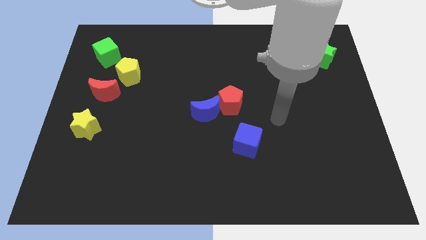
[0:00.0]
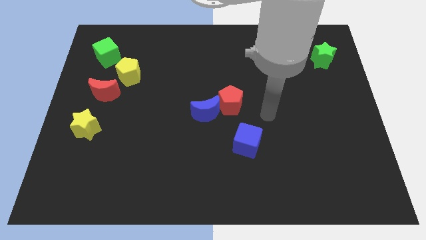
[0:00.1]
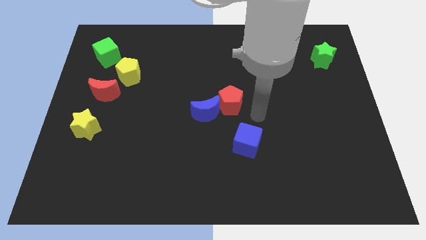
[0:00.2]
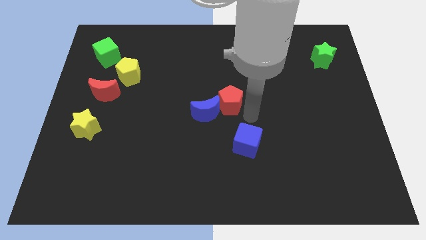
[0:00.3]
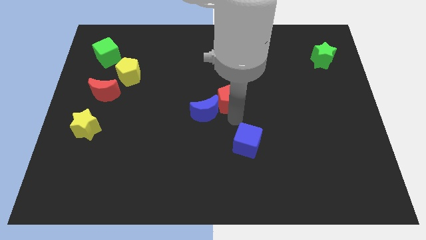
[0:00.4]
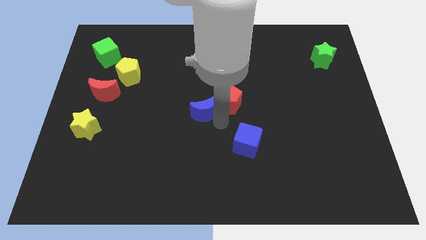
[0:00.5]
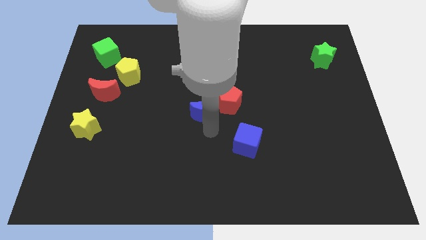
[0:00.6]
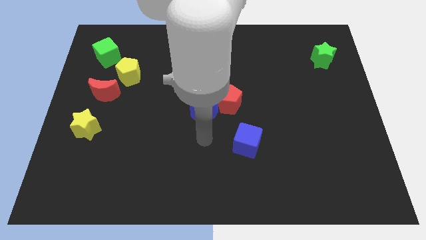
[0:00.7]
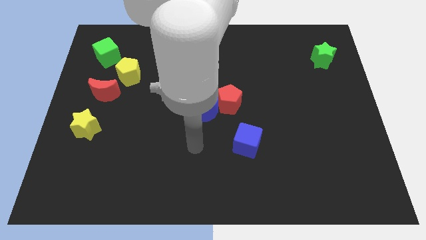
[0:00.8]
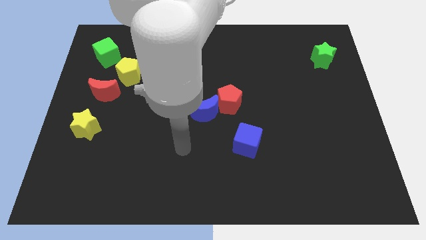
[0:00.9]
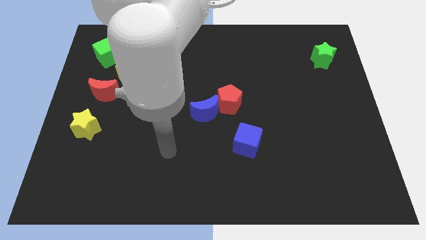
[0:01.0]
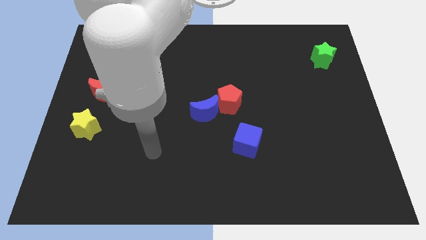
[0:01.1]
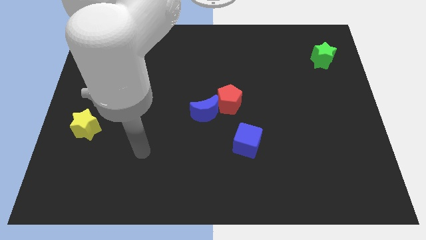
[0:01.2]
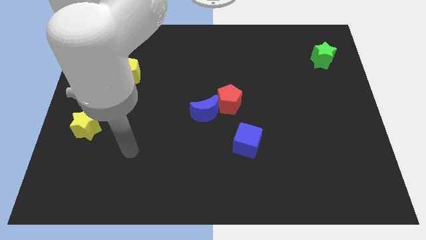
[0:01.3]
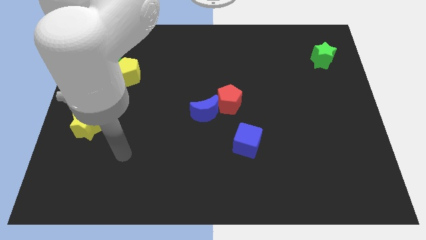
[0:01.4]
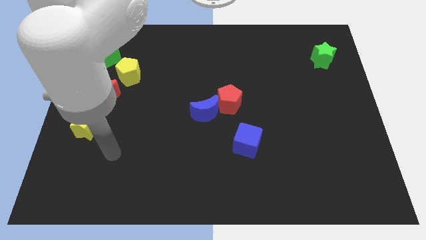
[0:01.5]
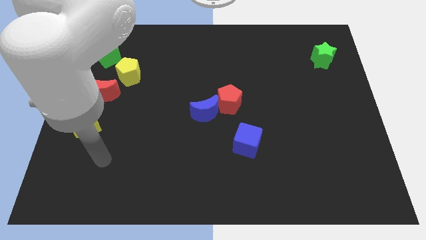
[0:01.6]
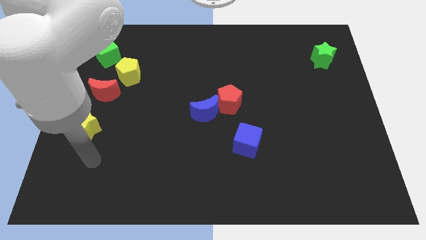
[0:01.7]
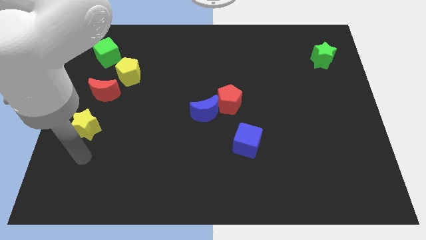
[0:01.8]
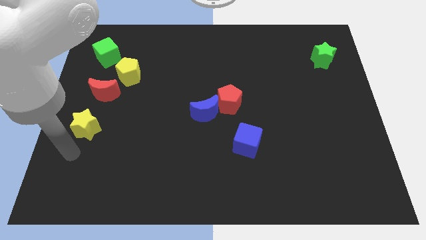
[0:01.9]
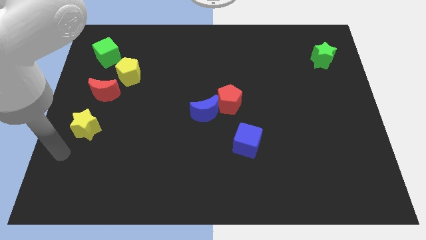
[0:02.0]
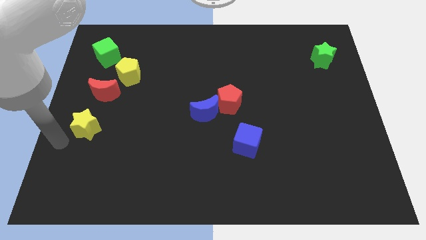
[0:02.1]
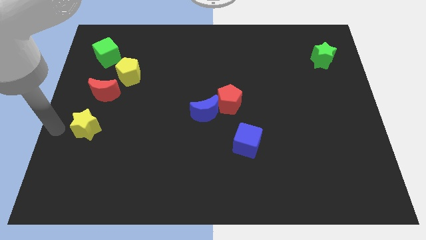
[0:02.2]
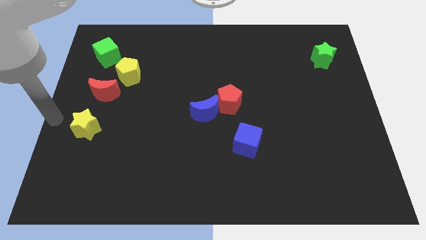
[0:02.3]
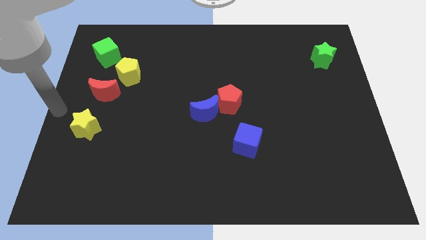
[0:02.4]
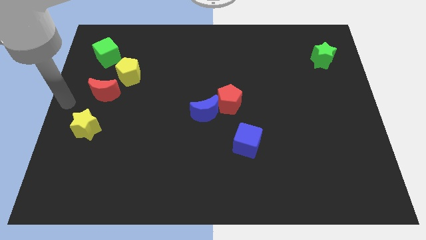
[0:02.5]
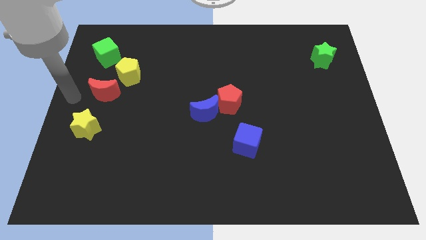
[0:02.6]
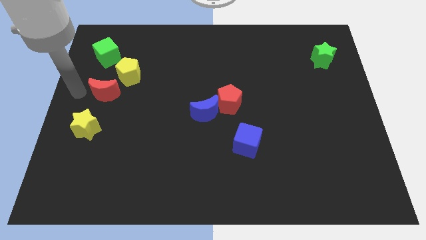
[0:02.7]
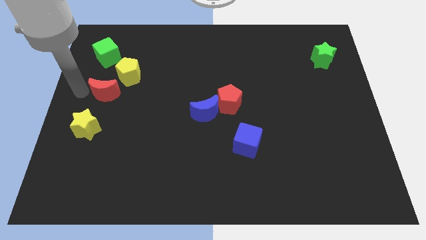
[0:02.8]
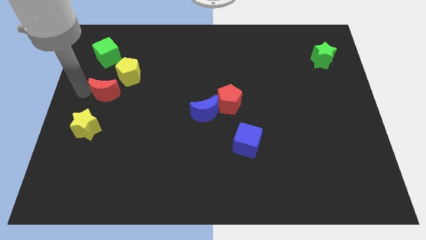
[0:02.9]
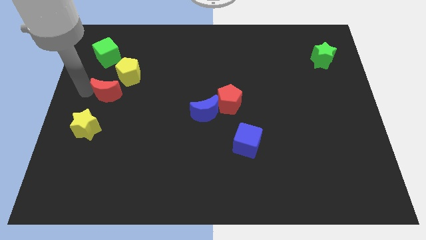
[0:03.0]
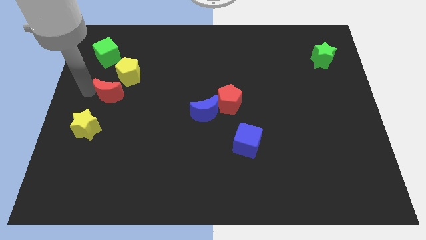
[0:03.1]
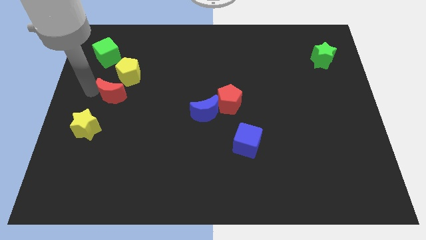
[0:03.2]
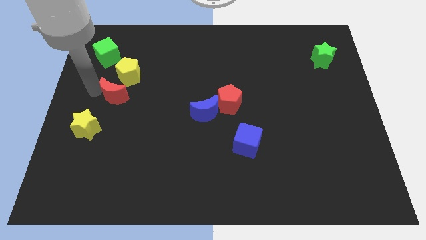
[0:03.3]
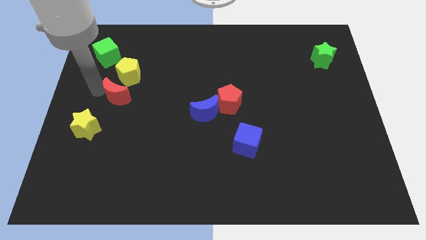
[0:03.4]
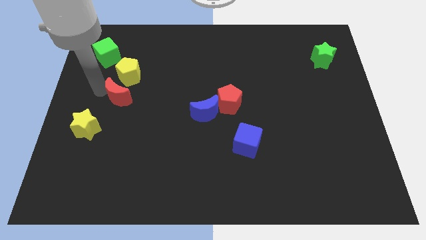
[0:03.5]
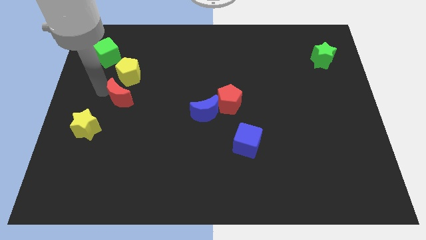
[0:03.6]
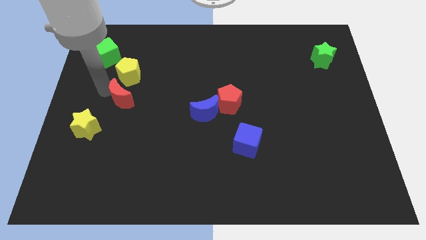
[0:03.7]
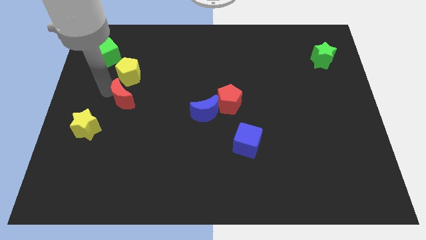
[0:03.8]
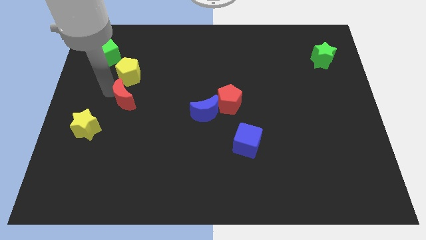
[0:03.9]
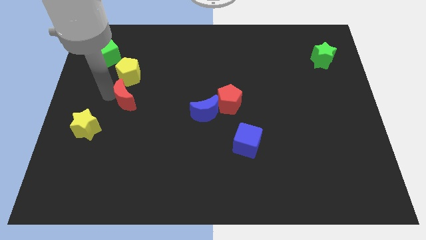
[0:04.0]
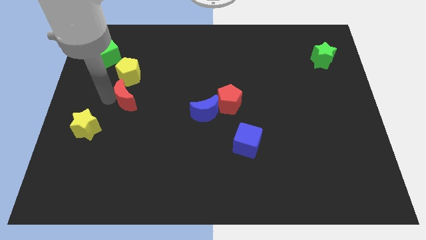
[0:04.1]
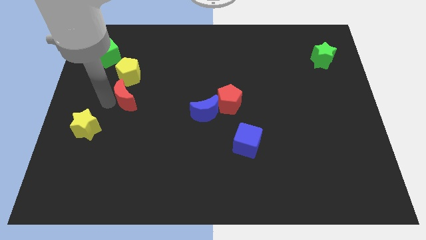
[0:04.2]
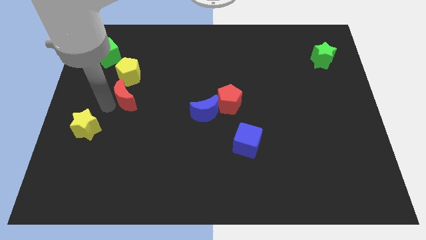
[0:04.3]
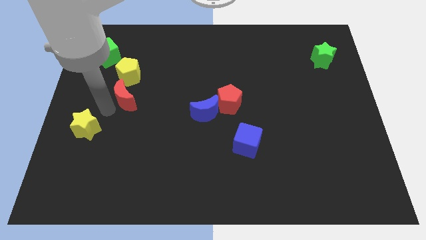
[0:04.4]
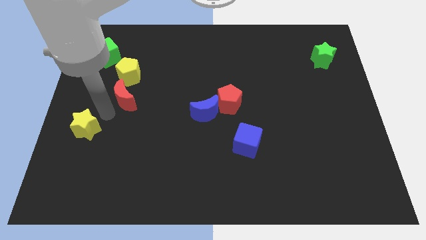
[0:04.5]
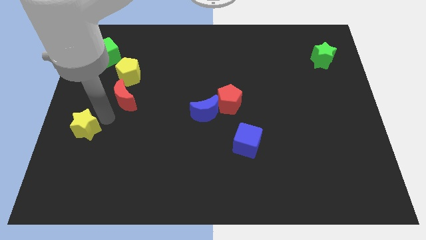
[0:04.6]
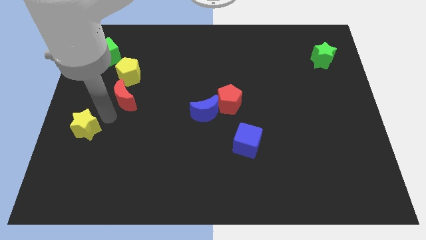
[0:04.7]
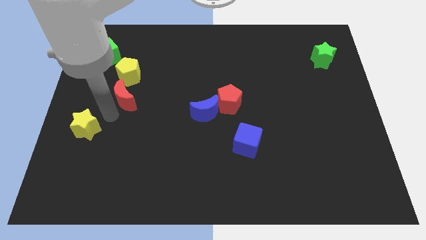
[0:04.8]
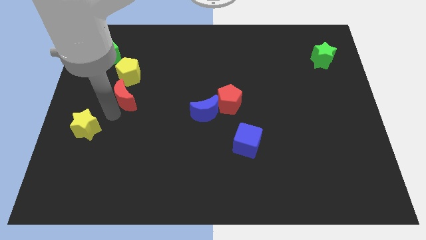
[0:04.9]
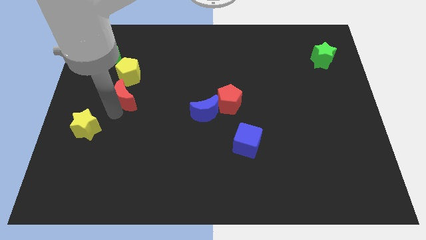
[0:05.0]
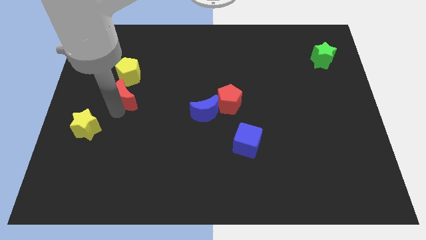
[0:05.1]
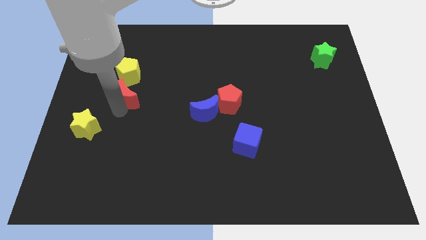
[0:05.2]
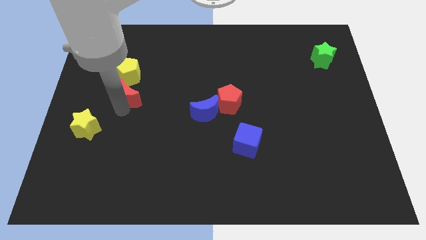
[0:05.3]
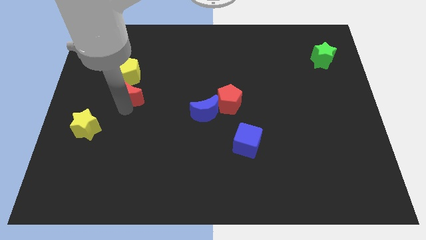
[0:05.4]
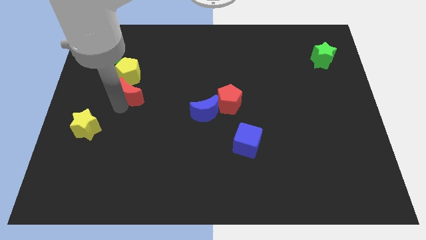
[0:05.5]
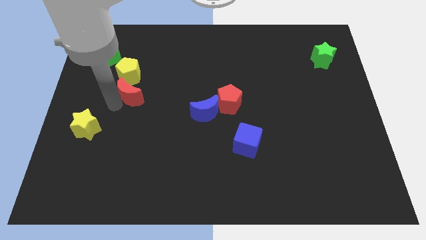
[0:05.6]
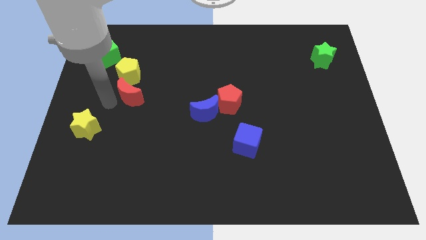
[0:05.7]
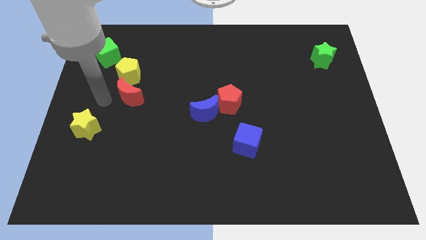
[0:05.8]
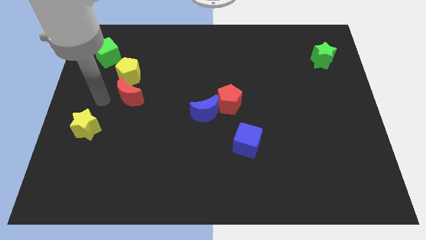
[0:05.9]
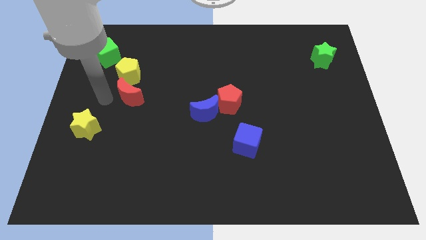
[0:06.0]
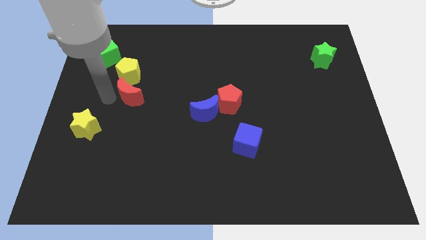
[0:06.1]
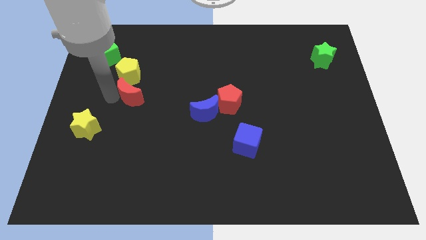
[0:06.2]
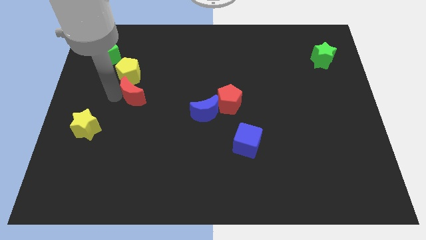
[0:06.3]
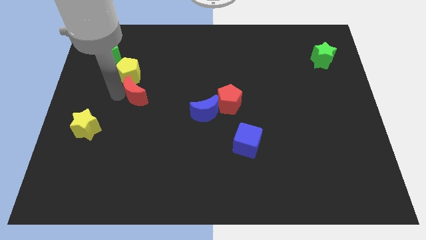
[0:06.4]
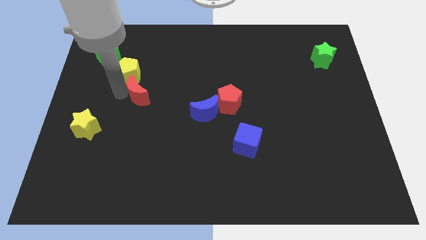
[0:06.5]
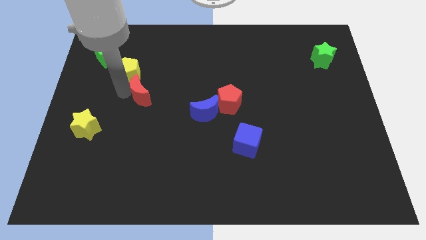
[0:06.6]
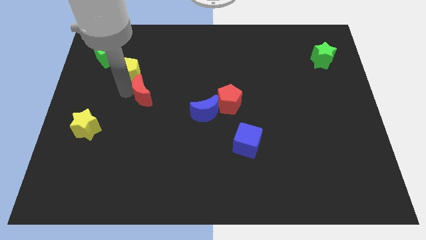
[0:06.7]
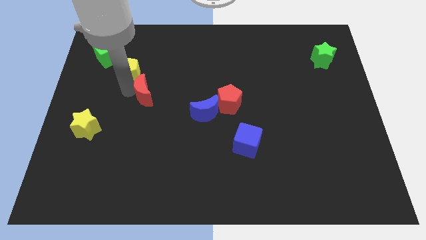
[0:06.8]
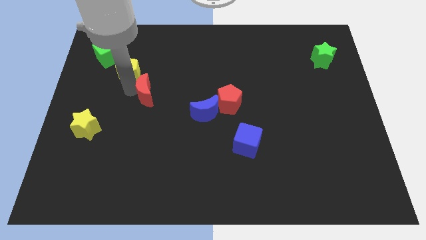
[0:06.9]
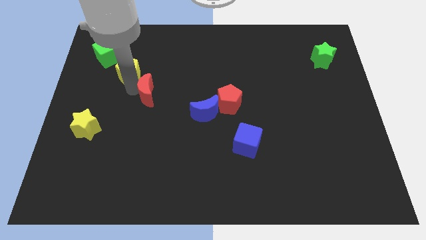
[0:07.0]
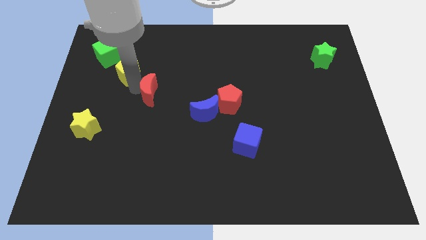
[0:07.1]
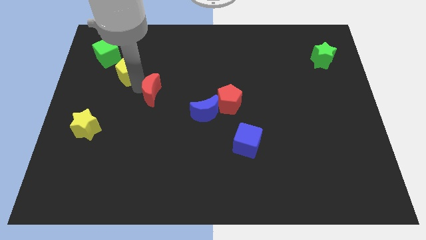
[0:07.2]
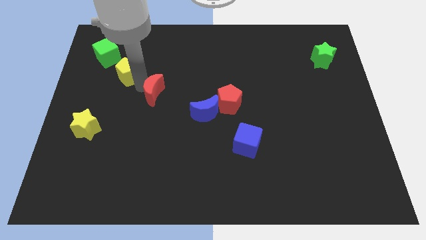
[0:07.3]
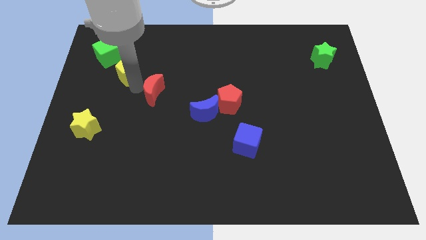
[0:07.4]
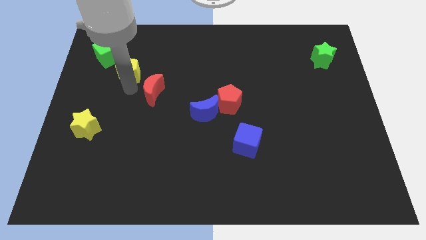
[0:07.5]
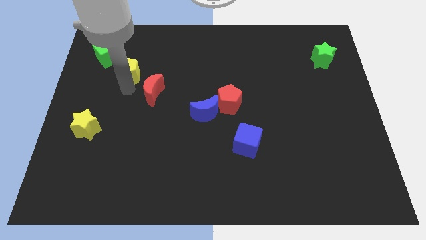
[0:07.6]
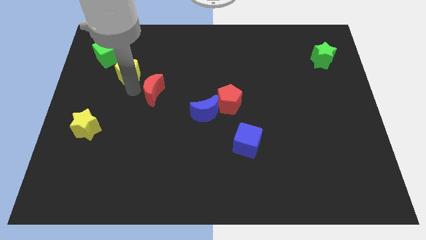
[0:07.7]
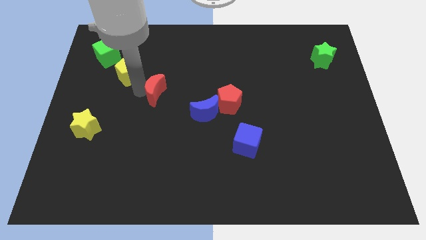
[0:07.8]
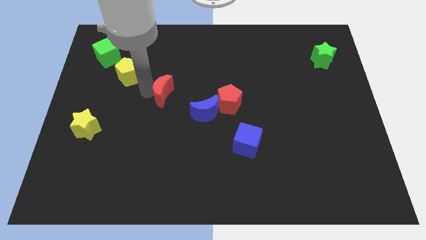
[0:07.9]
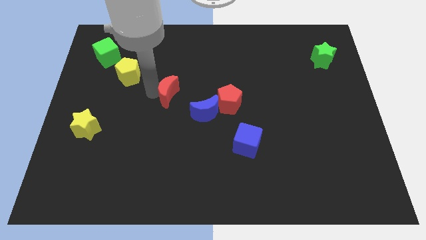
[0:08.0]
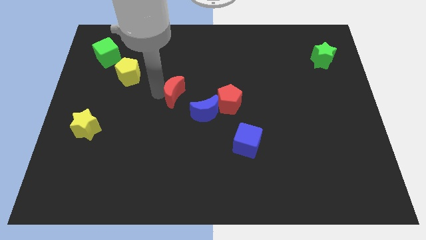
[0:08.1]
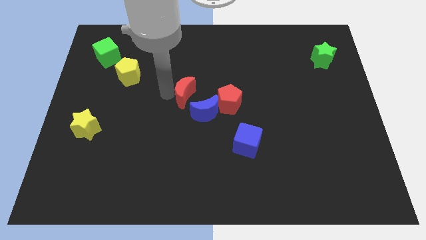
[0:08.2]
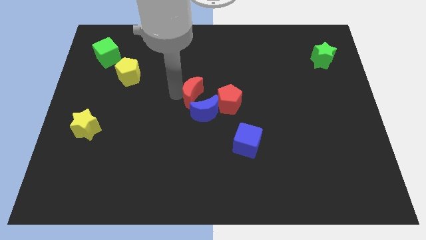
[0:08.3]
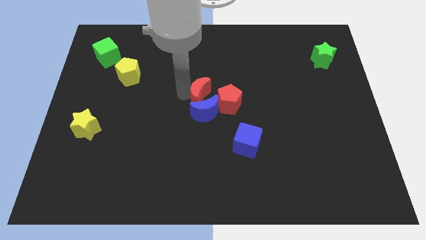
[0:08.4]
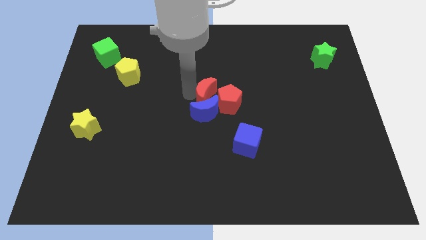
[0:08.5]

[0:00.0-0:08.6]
move the red moon towards the red pentagon
